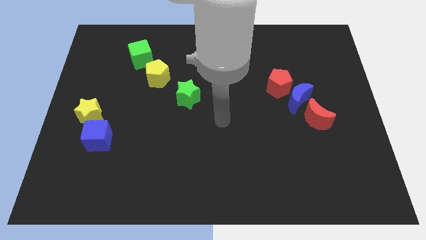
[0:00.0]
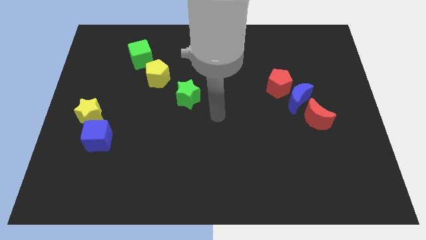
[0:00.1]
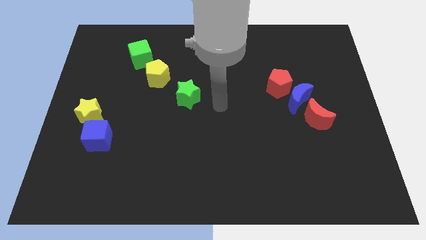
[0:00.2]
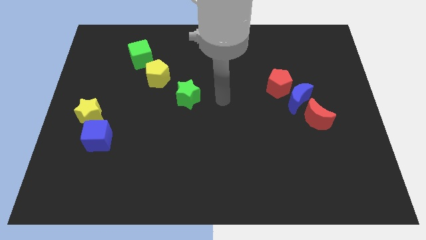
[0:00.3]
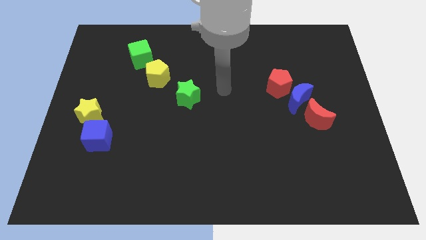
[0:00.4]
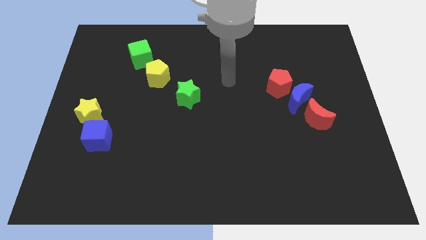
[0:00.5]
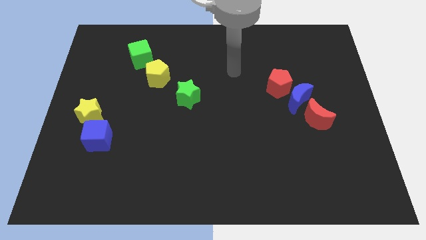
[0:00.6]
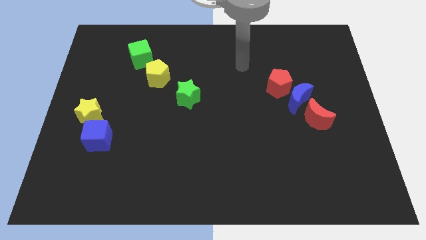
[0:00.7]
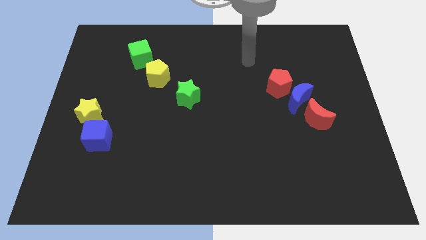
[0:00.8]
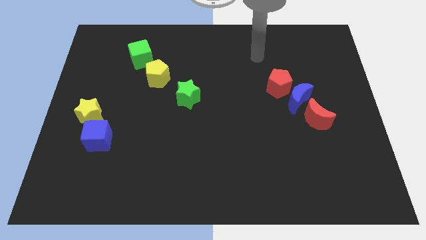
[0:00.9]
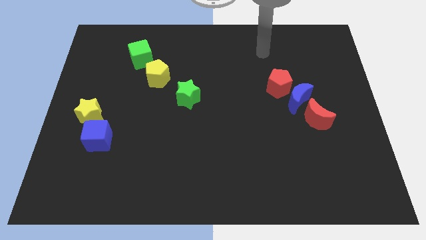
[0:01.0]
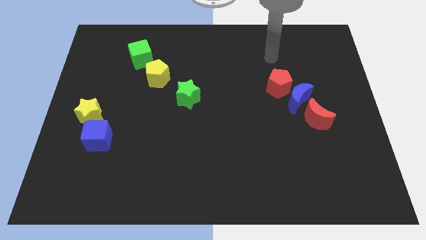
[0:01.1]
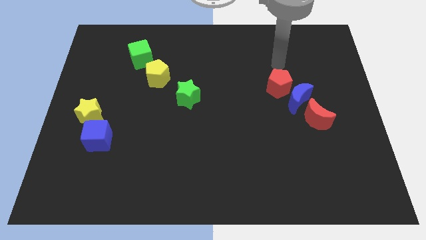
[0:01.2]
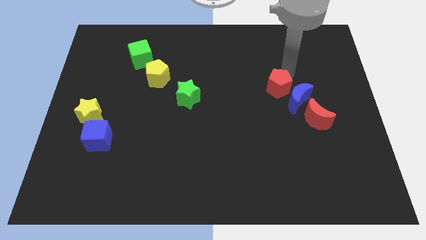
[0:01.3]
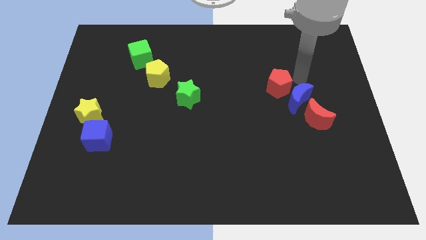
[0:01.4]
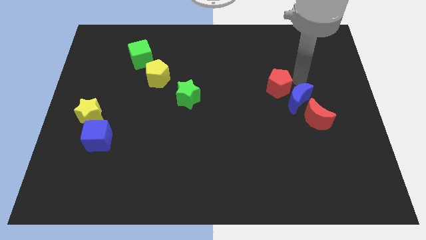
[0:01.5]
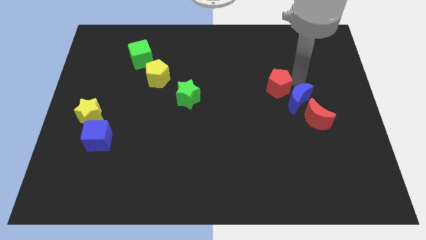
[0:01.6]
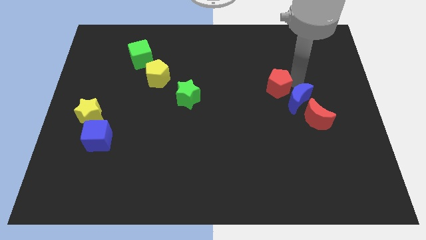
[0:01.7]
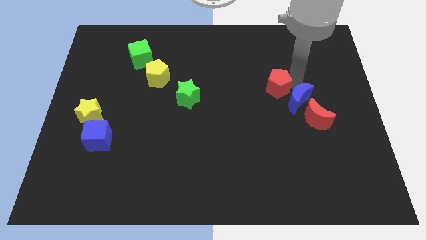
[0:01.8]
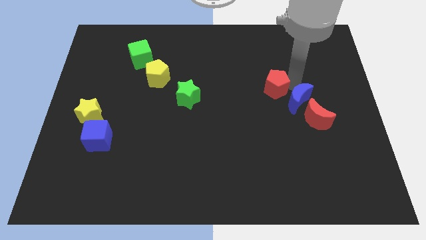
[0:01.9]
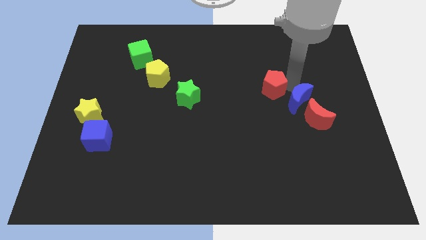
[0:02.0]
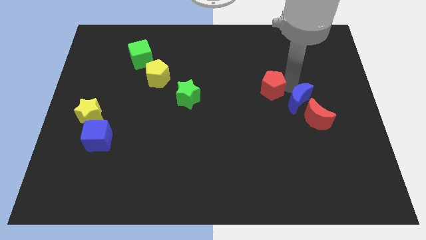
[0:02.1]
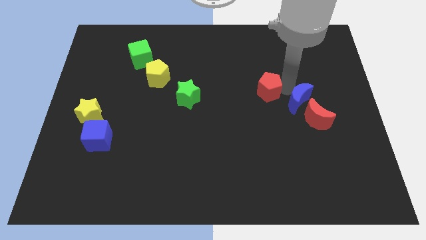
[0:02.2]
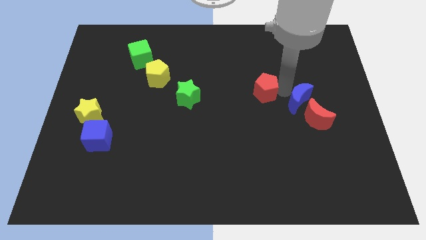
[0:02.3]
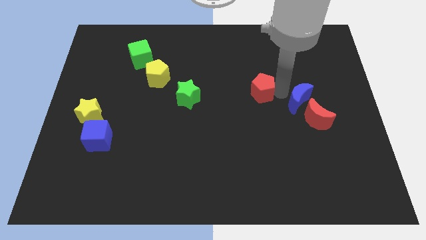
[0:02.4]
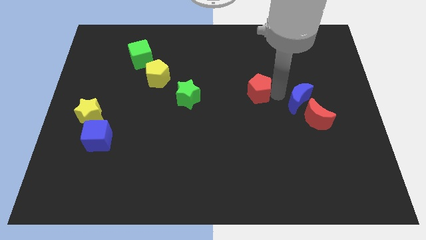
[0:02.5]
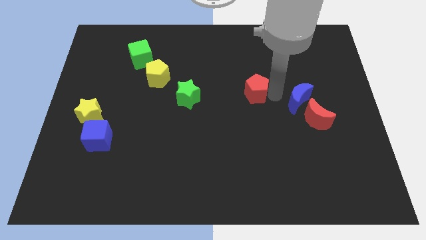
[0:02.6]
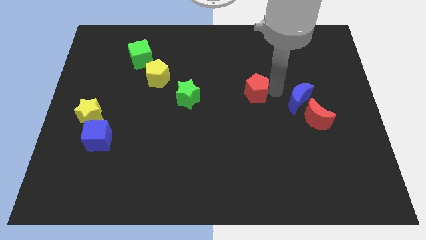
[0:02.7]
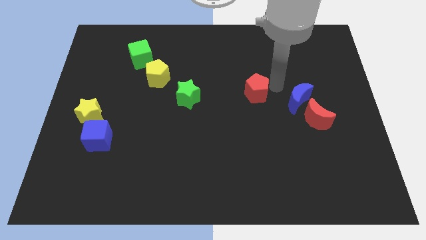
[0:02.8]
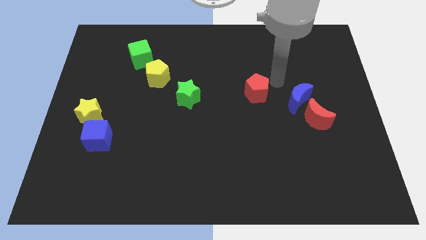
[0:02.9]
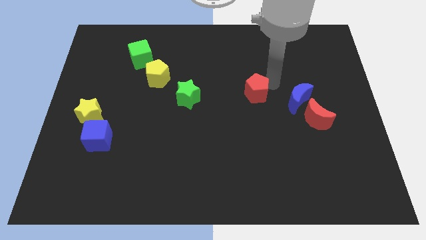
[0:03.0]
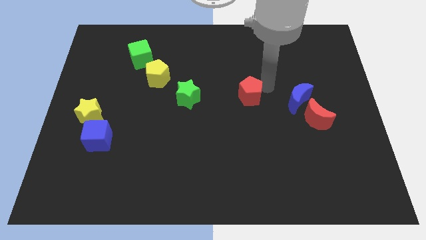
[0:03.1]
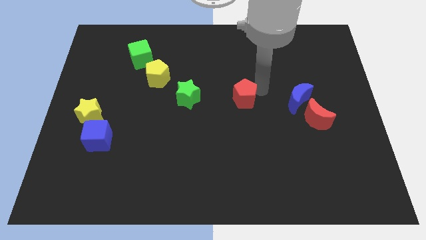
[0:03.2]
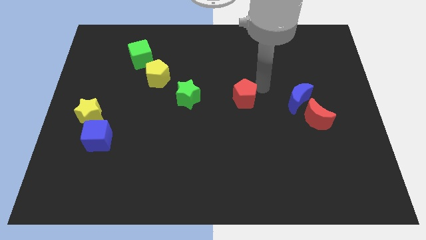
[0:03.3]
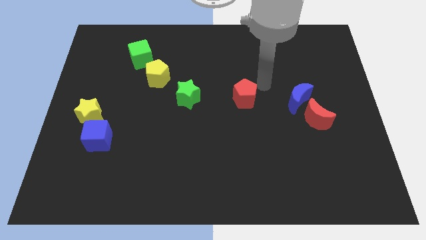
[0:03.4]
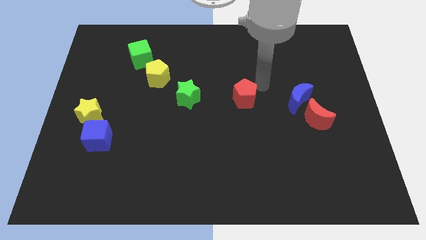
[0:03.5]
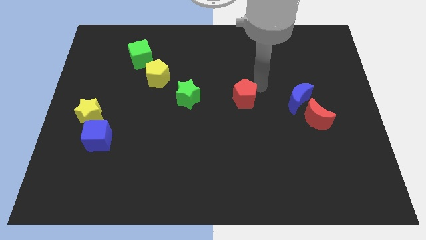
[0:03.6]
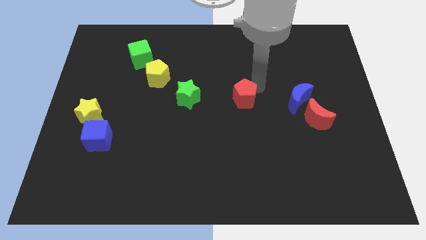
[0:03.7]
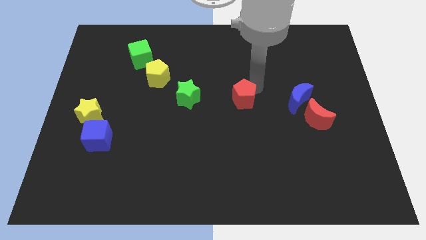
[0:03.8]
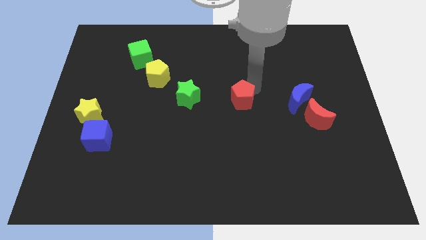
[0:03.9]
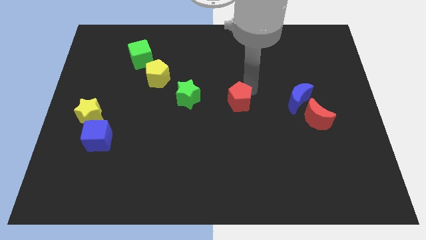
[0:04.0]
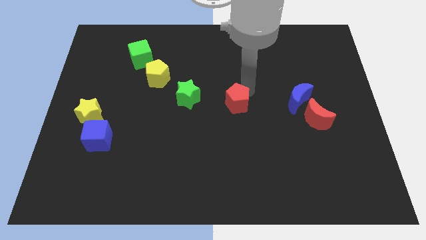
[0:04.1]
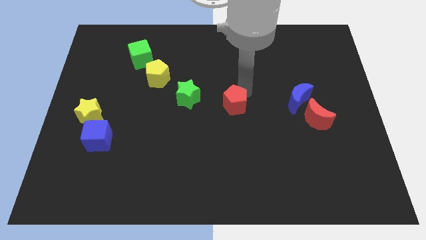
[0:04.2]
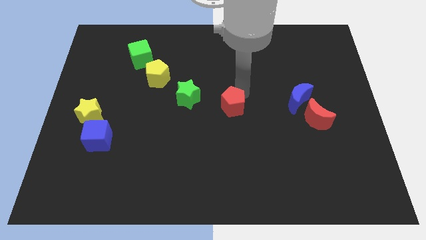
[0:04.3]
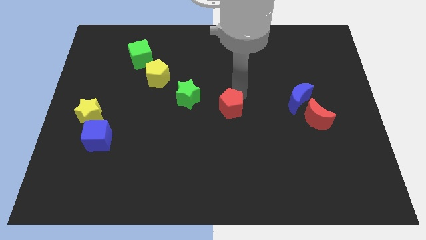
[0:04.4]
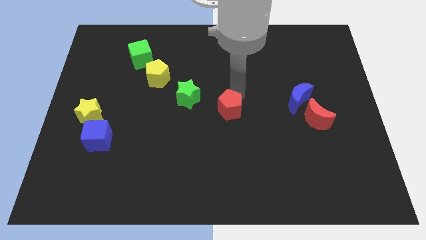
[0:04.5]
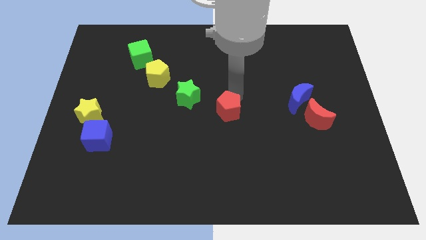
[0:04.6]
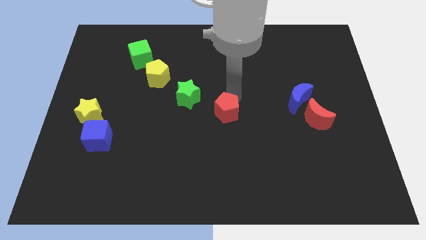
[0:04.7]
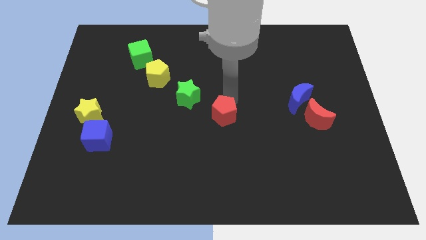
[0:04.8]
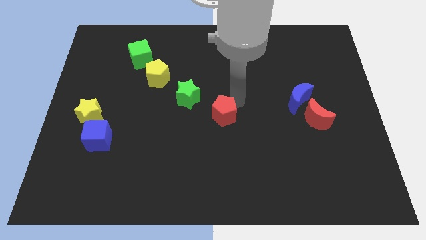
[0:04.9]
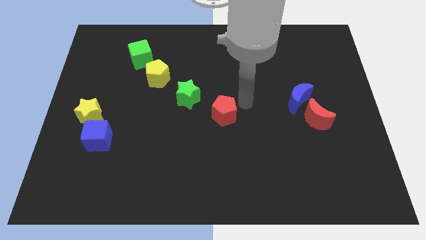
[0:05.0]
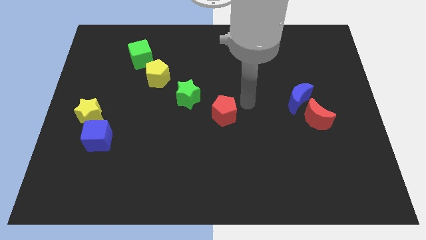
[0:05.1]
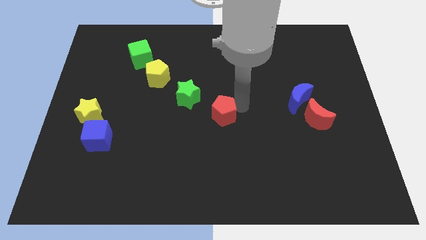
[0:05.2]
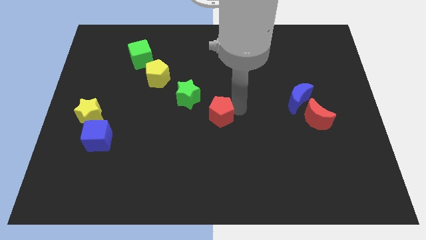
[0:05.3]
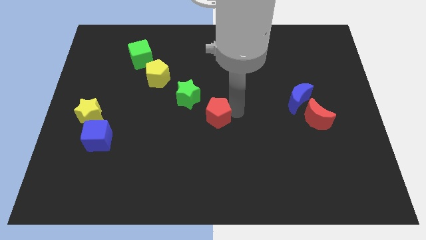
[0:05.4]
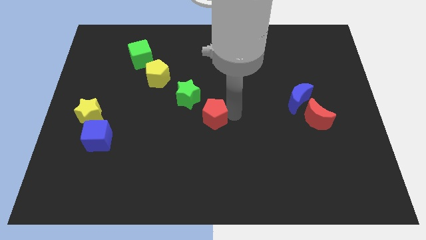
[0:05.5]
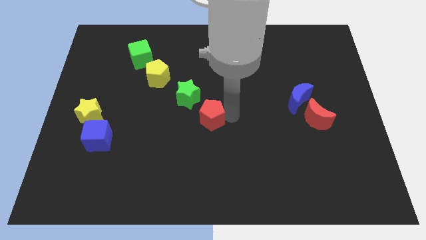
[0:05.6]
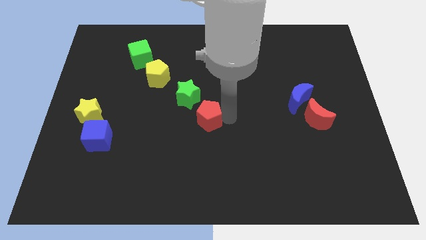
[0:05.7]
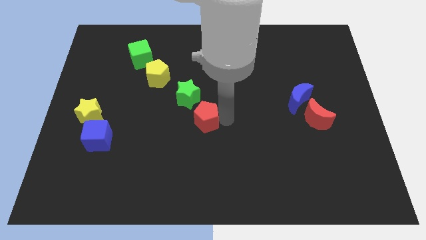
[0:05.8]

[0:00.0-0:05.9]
put the red pentagon to the bottom of the green star

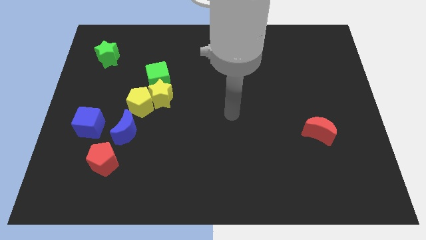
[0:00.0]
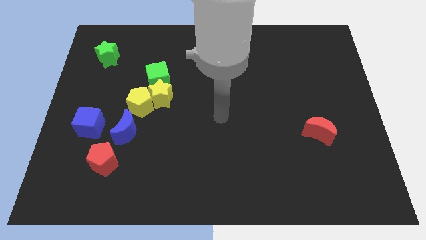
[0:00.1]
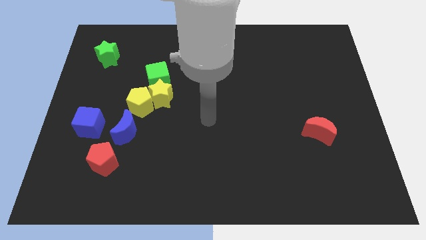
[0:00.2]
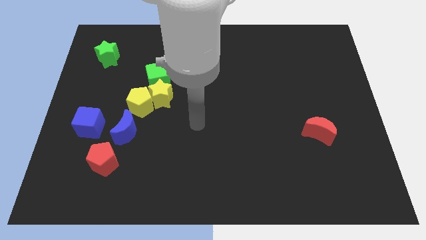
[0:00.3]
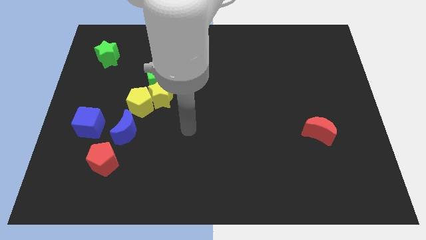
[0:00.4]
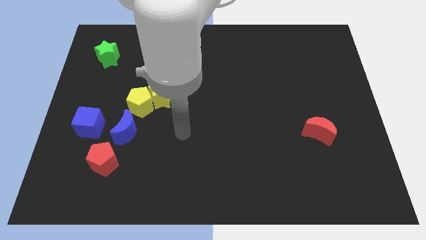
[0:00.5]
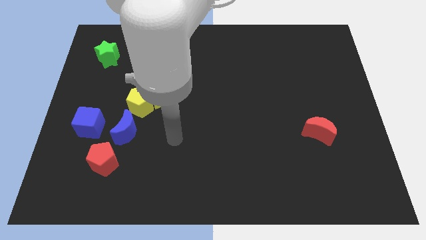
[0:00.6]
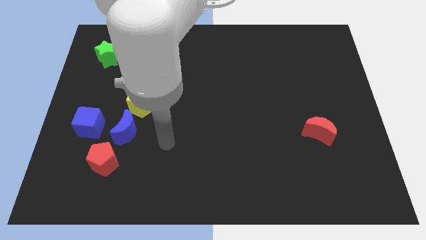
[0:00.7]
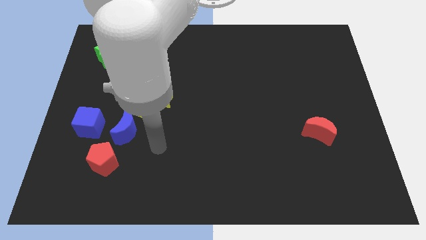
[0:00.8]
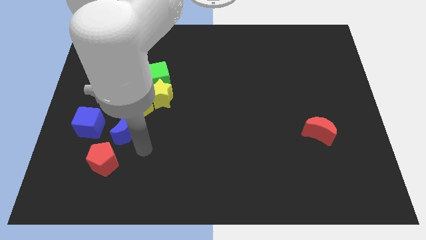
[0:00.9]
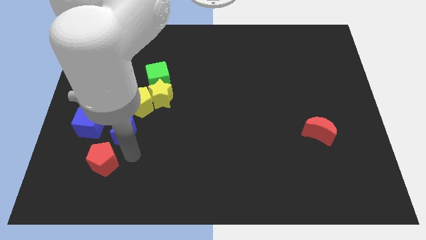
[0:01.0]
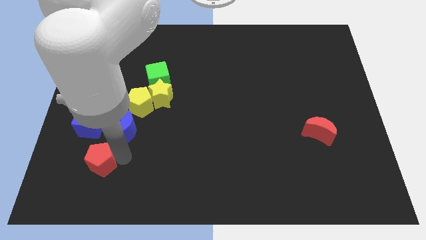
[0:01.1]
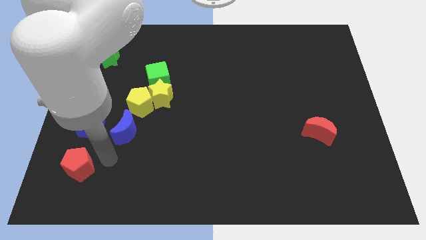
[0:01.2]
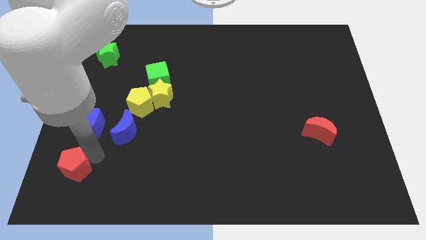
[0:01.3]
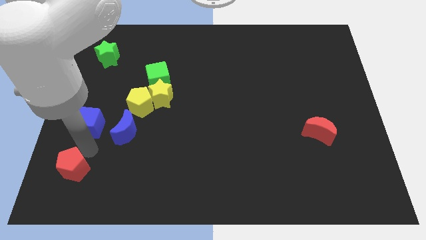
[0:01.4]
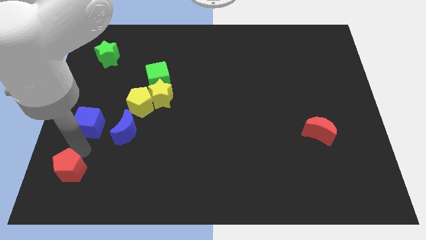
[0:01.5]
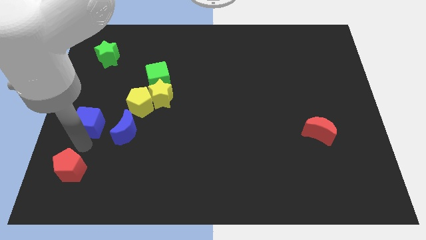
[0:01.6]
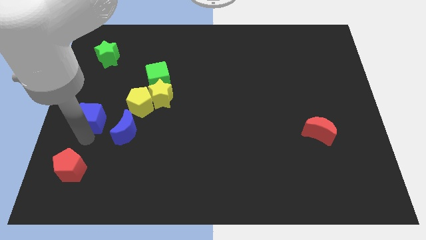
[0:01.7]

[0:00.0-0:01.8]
push the blue cube left of the yellow pentagon
